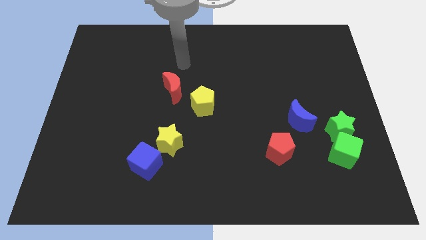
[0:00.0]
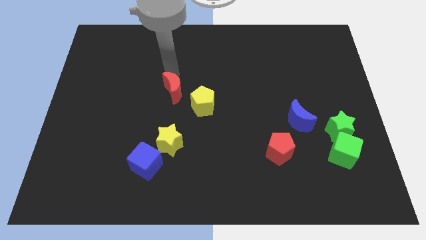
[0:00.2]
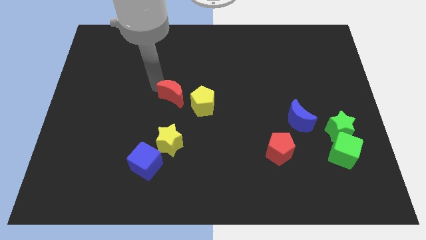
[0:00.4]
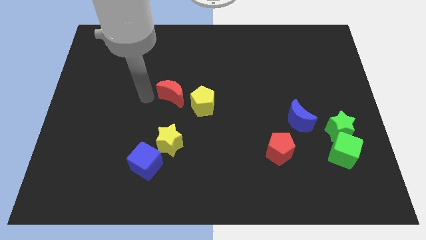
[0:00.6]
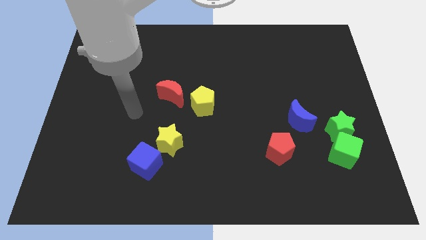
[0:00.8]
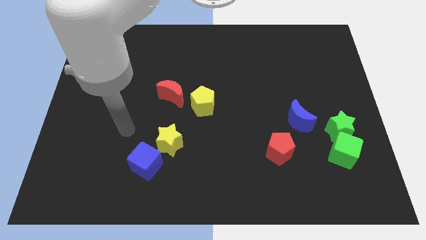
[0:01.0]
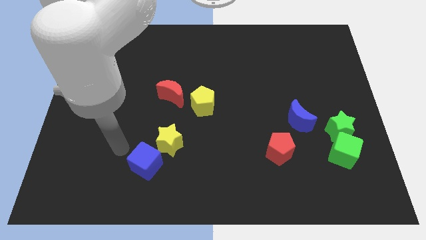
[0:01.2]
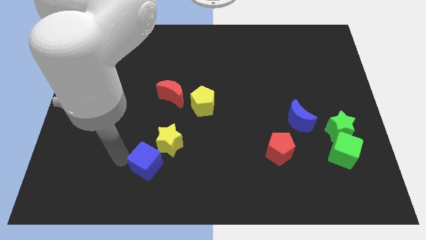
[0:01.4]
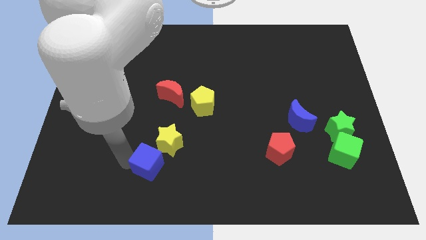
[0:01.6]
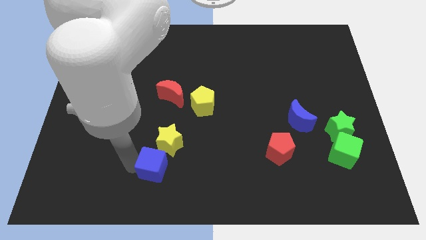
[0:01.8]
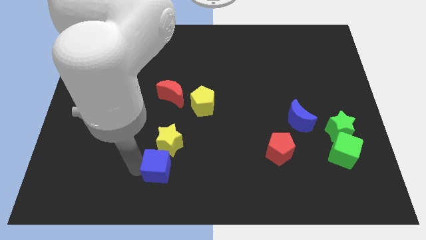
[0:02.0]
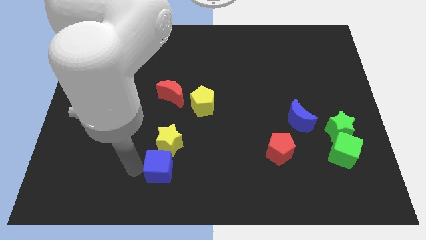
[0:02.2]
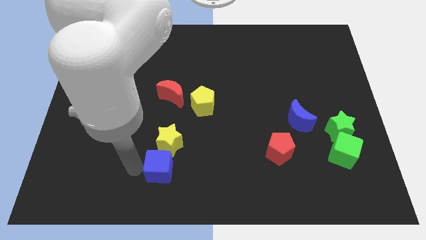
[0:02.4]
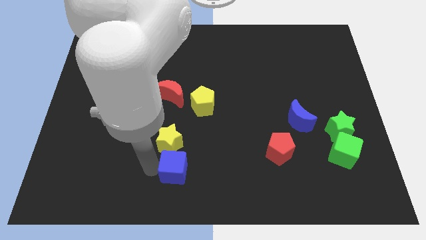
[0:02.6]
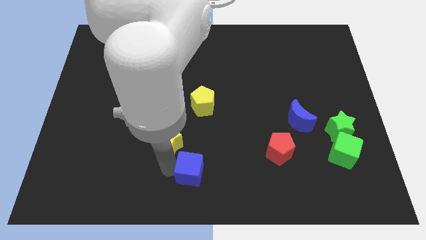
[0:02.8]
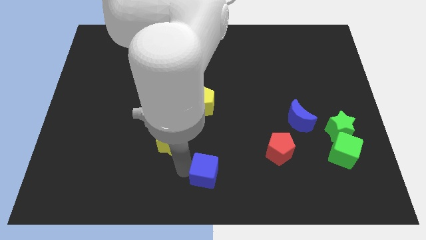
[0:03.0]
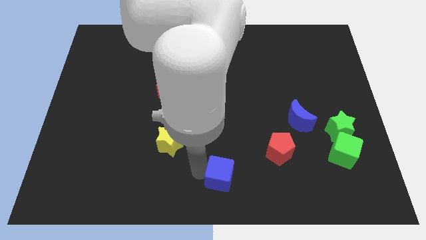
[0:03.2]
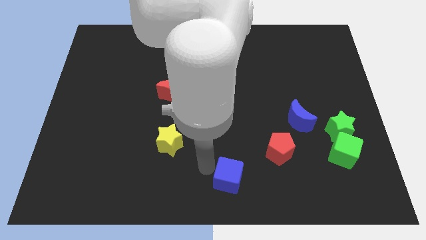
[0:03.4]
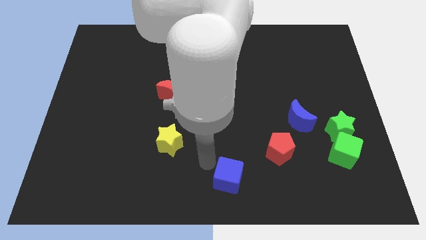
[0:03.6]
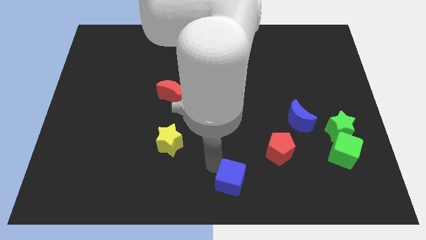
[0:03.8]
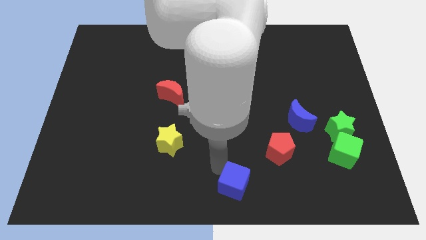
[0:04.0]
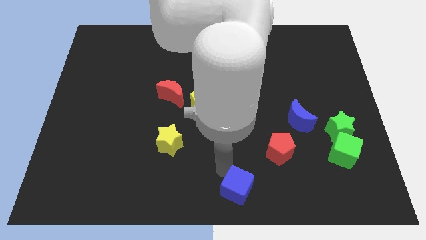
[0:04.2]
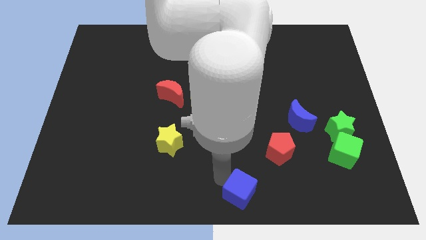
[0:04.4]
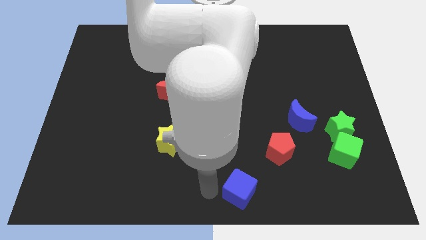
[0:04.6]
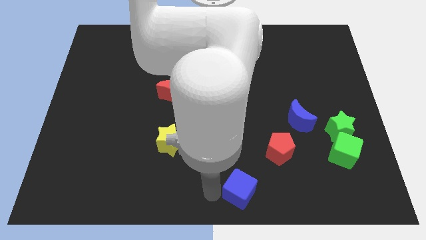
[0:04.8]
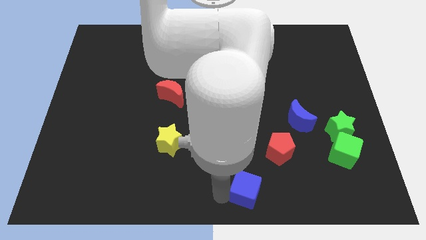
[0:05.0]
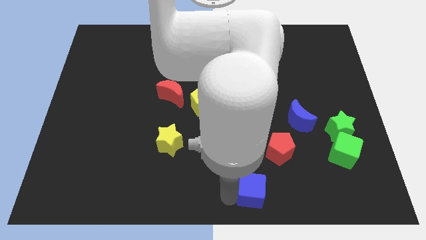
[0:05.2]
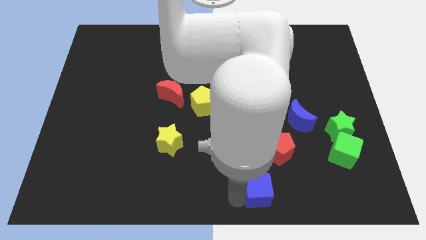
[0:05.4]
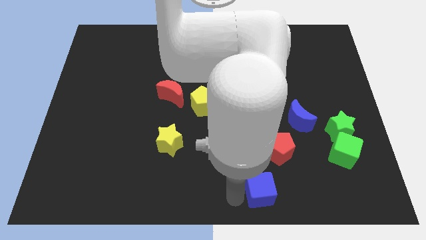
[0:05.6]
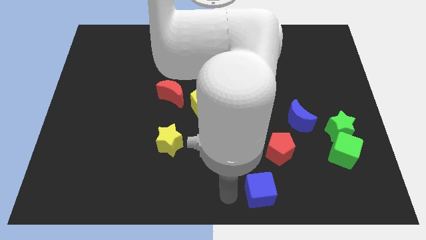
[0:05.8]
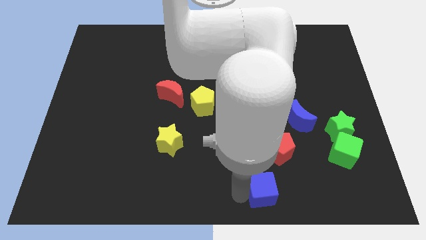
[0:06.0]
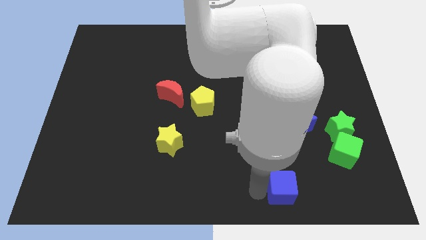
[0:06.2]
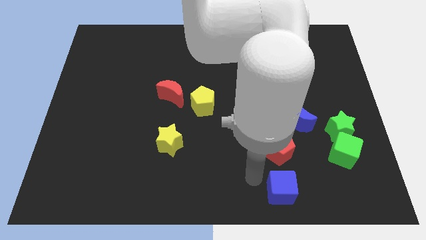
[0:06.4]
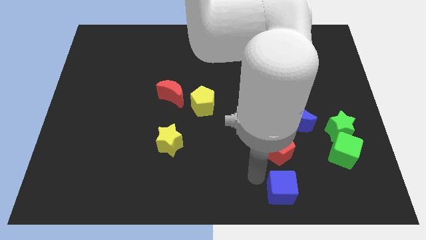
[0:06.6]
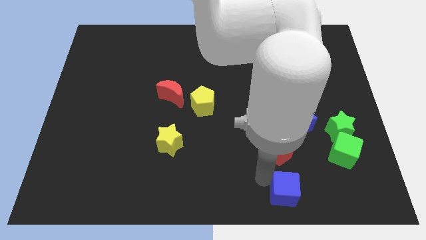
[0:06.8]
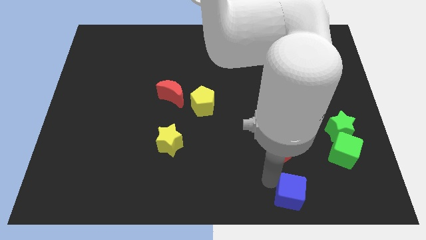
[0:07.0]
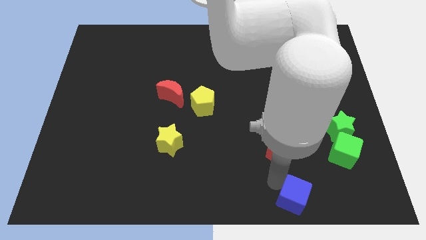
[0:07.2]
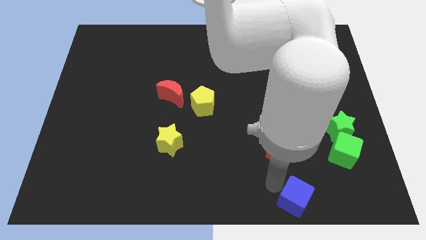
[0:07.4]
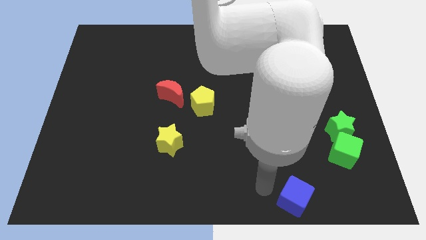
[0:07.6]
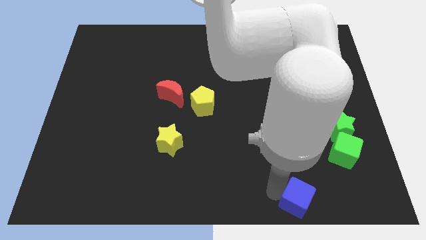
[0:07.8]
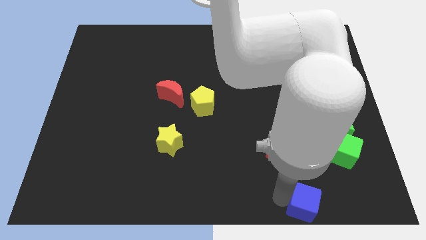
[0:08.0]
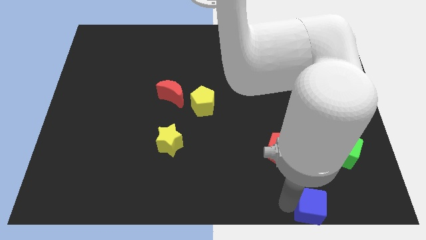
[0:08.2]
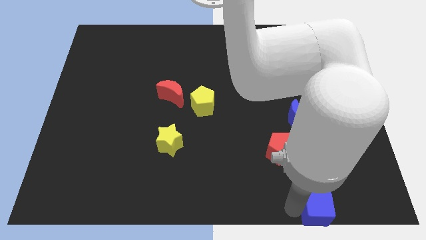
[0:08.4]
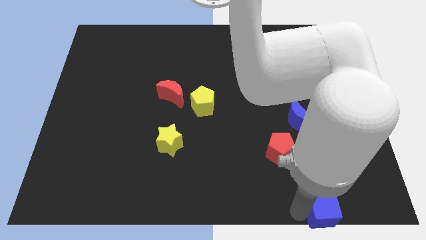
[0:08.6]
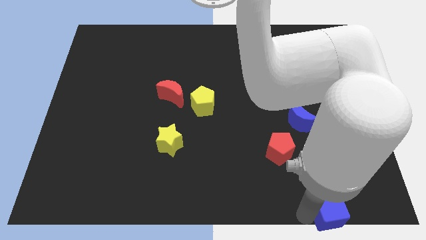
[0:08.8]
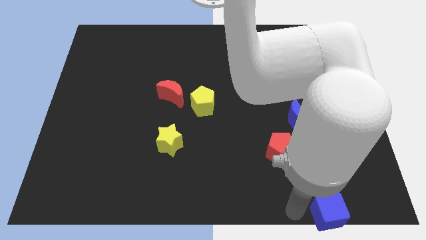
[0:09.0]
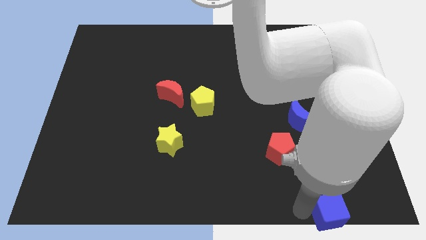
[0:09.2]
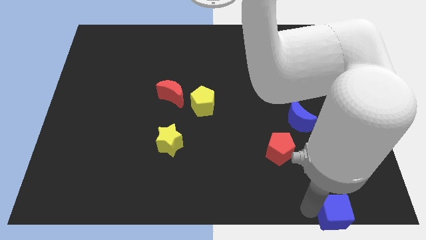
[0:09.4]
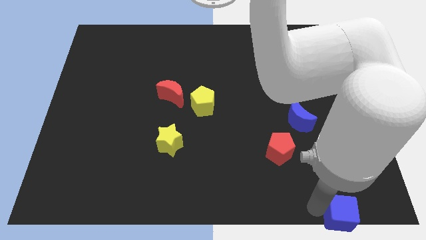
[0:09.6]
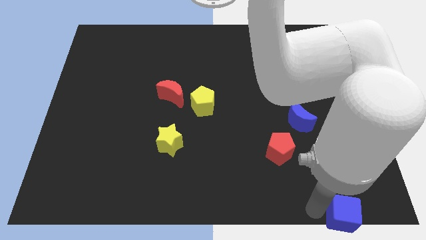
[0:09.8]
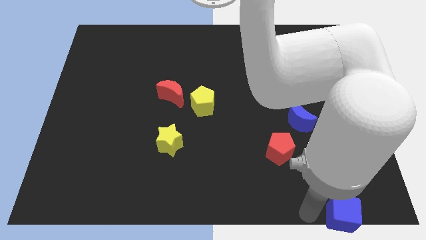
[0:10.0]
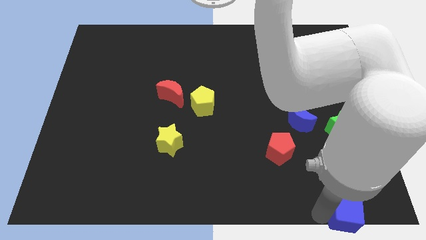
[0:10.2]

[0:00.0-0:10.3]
move the blue cube to the lower right corner

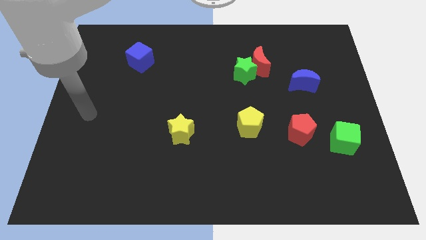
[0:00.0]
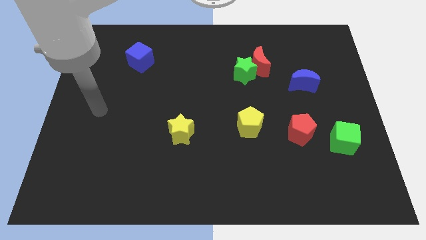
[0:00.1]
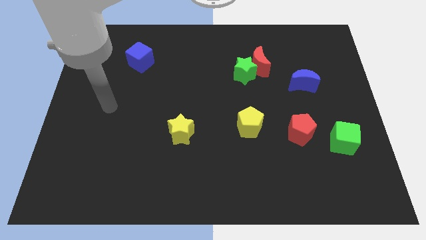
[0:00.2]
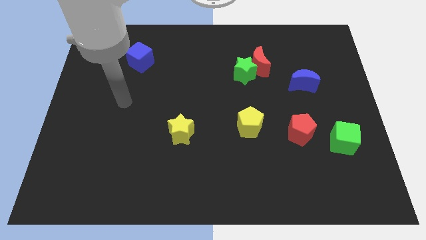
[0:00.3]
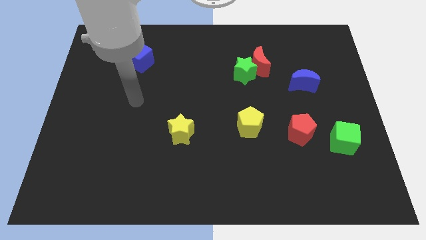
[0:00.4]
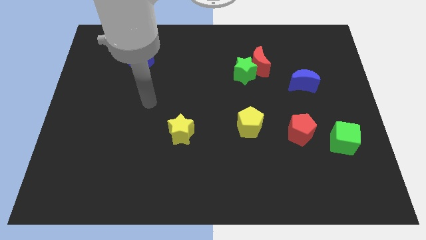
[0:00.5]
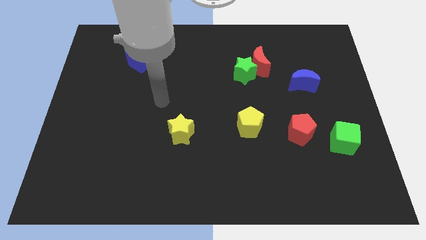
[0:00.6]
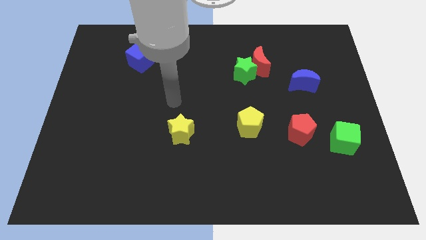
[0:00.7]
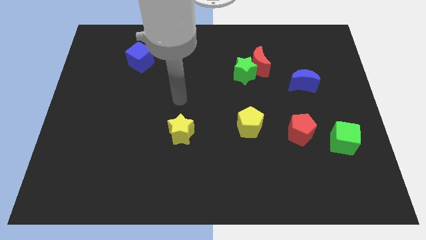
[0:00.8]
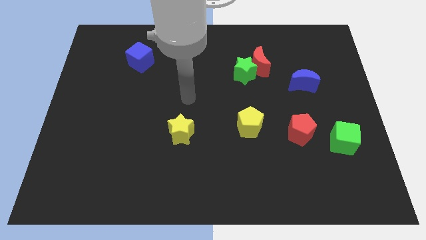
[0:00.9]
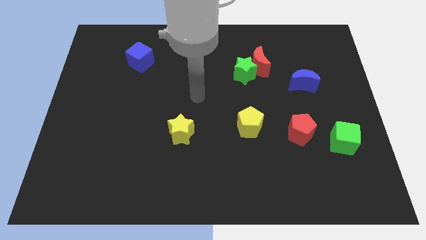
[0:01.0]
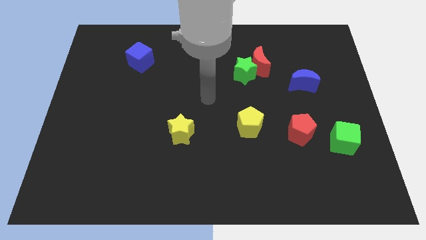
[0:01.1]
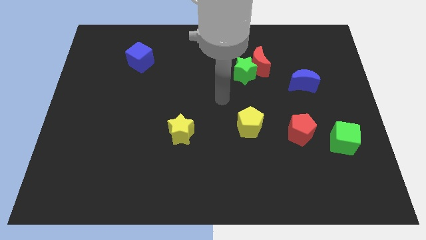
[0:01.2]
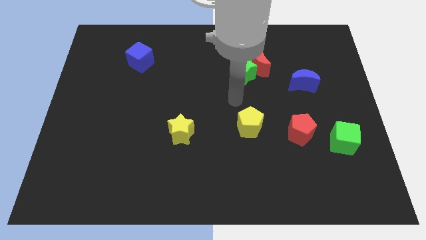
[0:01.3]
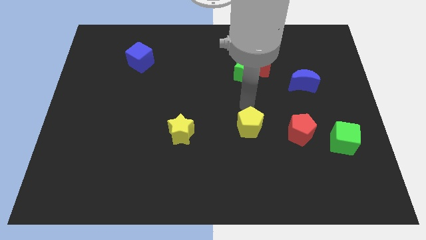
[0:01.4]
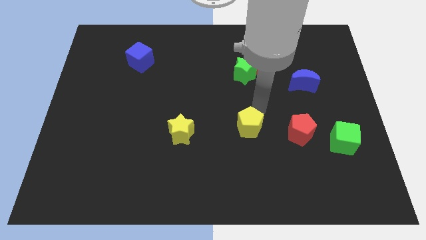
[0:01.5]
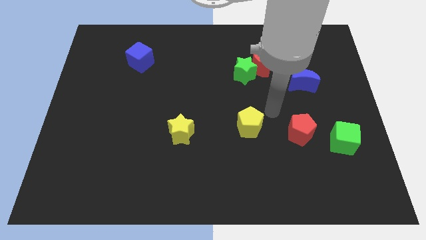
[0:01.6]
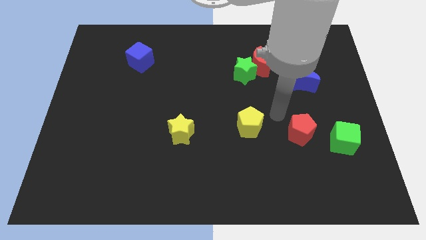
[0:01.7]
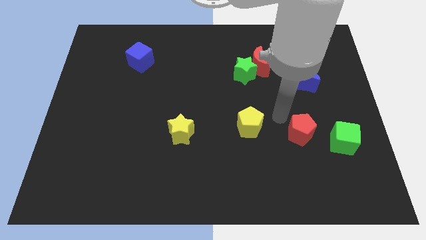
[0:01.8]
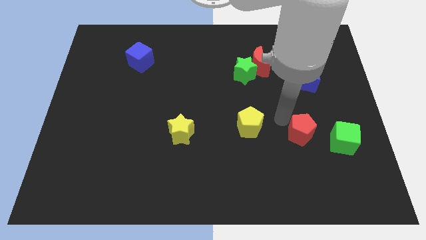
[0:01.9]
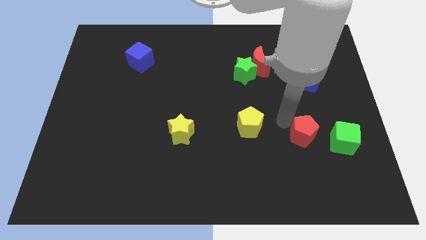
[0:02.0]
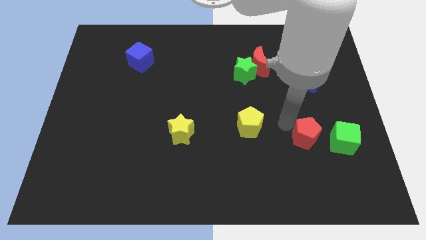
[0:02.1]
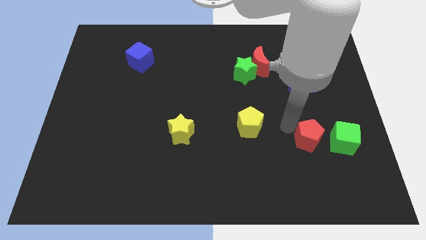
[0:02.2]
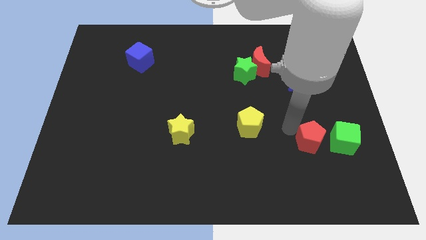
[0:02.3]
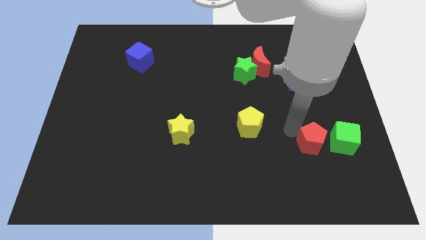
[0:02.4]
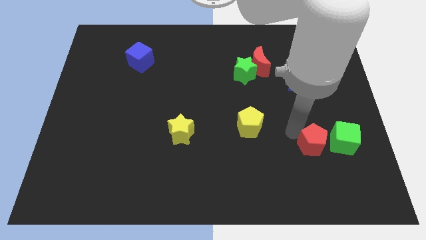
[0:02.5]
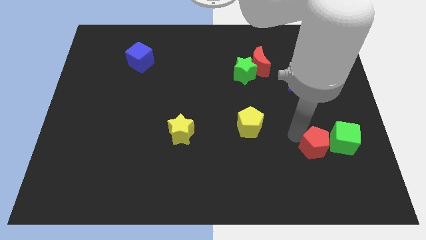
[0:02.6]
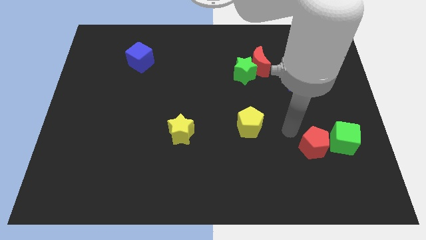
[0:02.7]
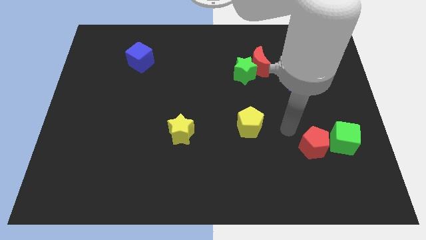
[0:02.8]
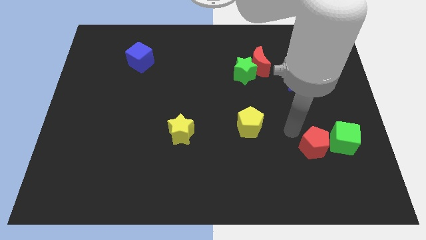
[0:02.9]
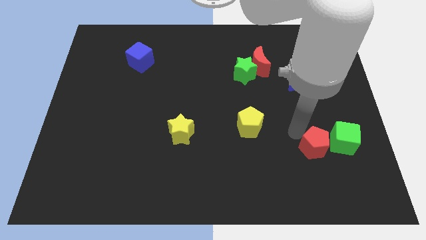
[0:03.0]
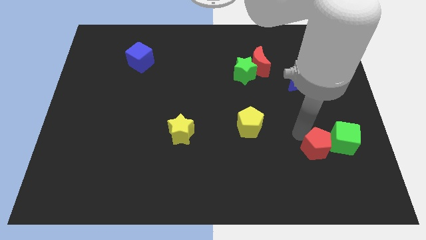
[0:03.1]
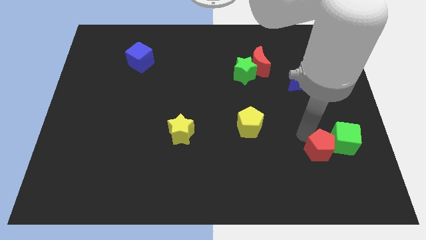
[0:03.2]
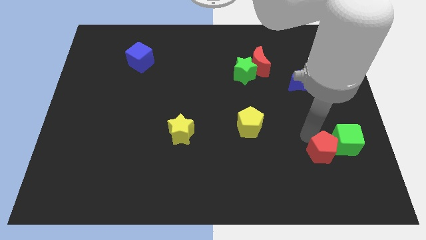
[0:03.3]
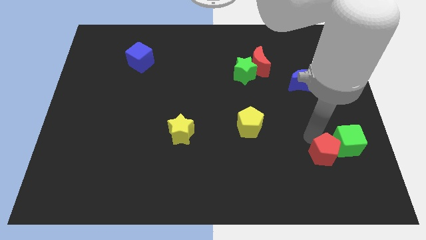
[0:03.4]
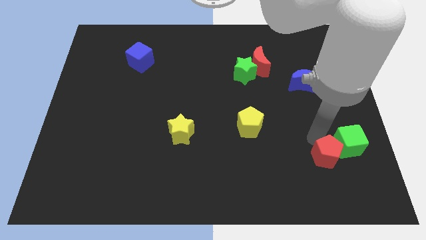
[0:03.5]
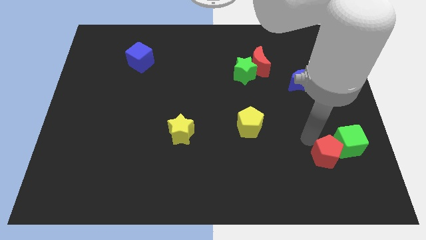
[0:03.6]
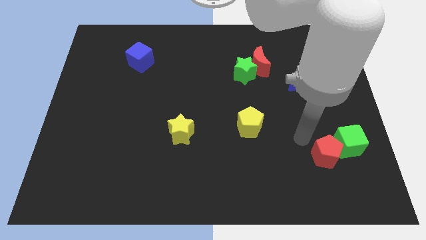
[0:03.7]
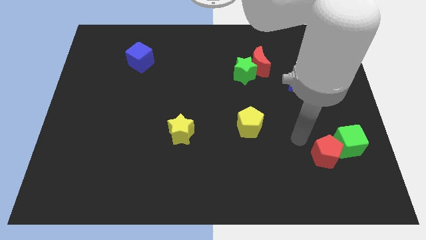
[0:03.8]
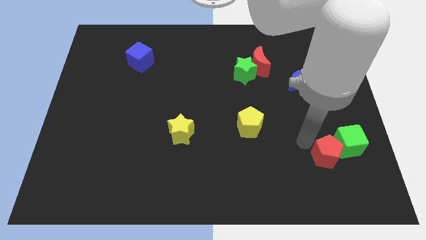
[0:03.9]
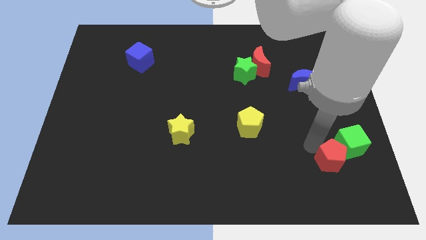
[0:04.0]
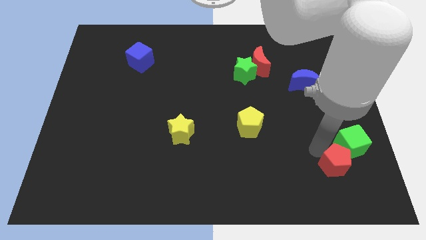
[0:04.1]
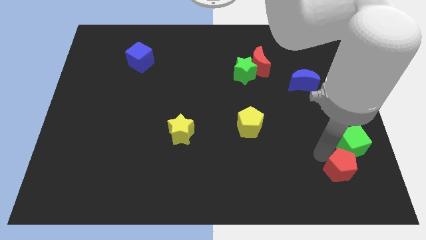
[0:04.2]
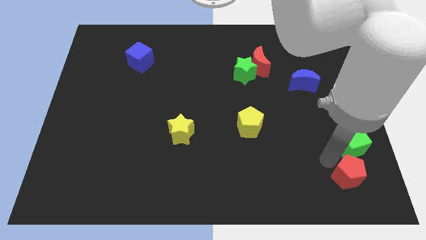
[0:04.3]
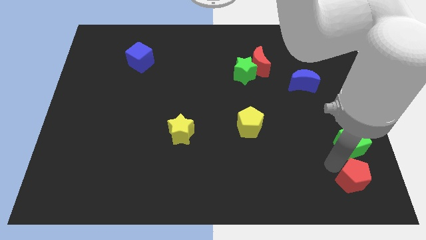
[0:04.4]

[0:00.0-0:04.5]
put the red pentagon to the bottom right
